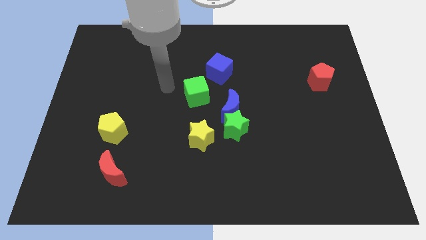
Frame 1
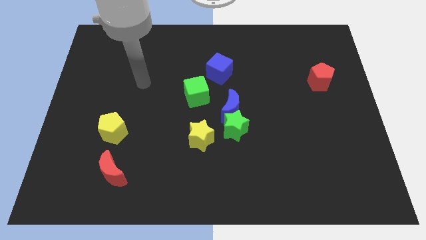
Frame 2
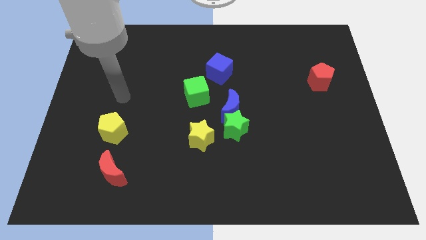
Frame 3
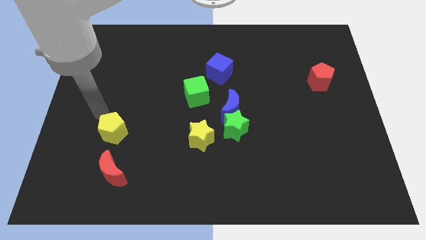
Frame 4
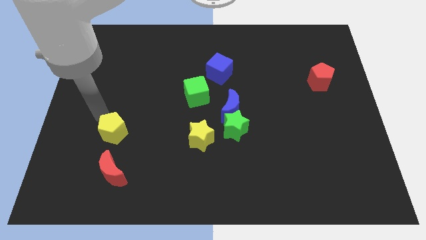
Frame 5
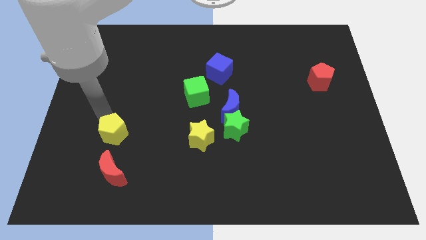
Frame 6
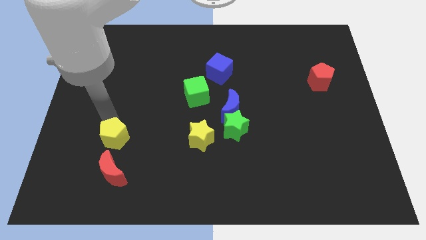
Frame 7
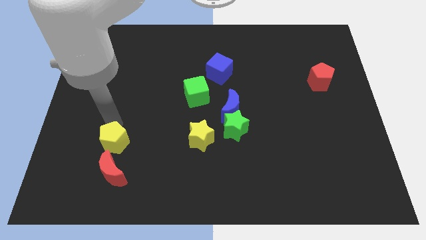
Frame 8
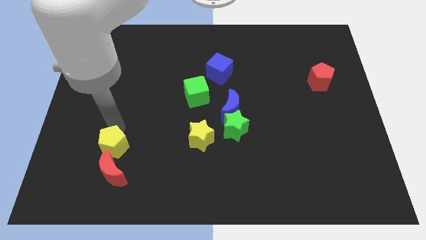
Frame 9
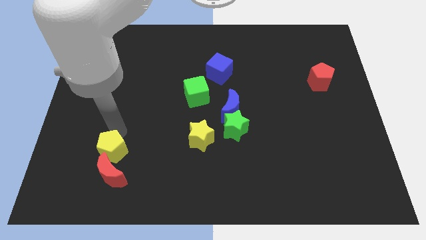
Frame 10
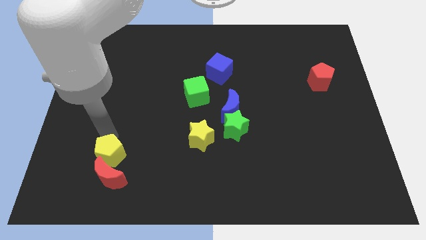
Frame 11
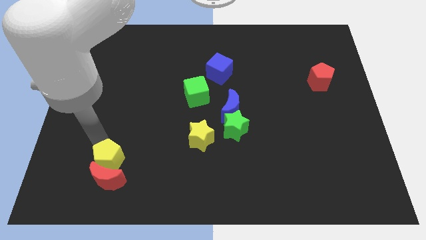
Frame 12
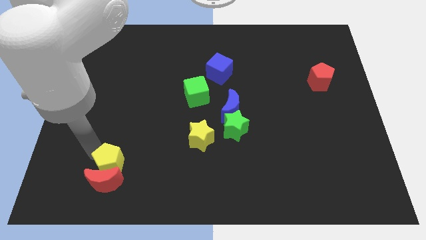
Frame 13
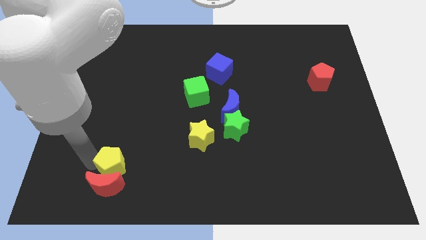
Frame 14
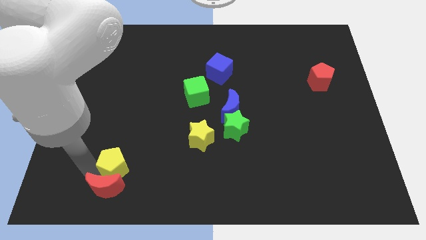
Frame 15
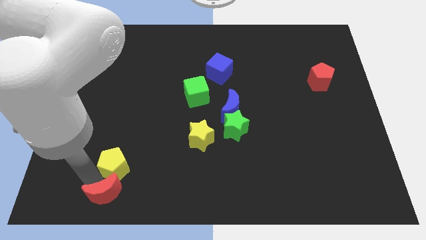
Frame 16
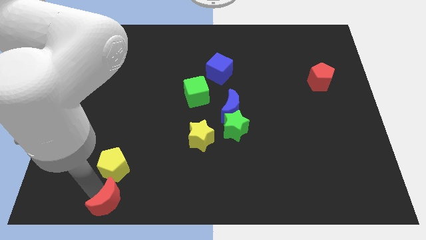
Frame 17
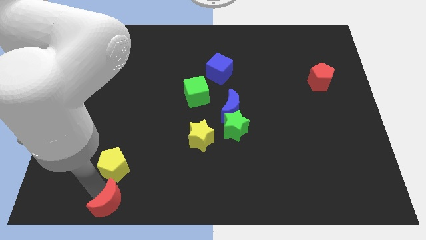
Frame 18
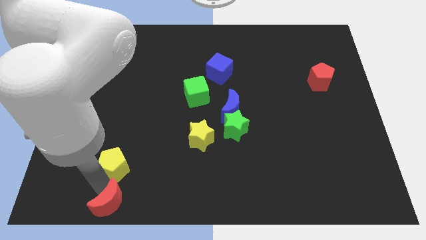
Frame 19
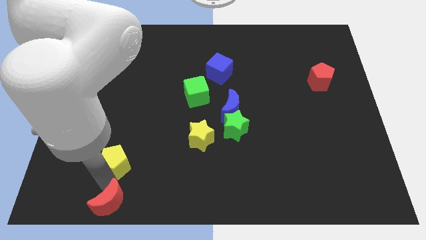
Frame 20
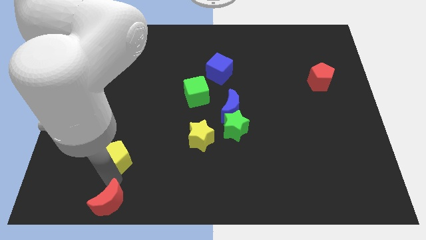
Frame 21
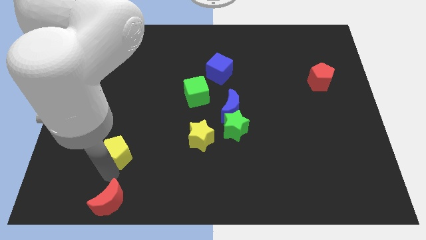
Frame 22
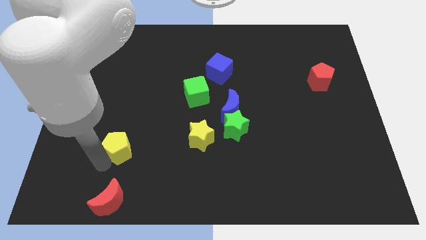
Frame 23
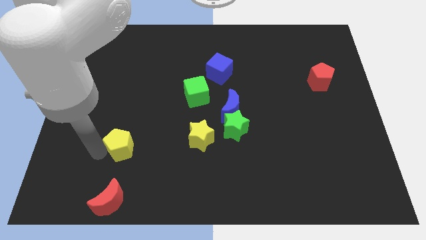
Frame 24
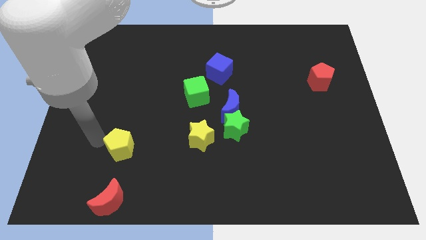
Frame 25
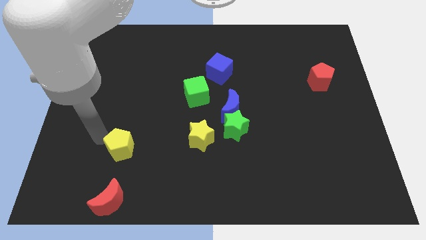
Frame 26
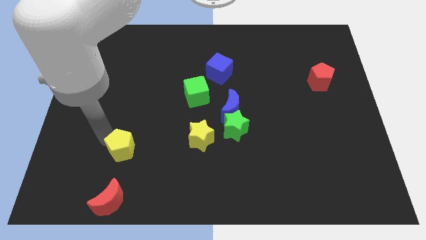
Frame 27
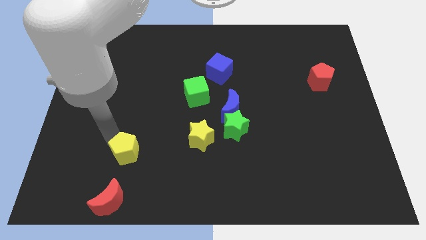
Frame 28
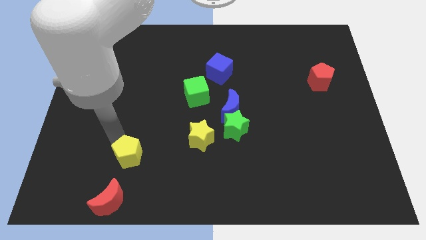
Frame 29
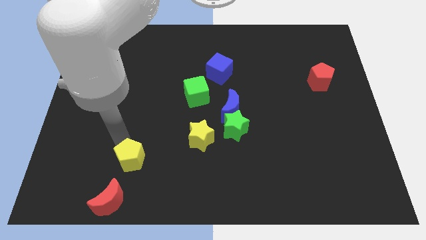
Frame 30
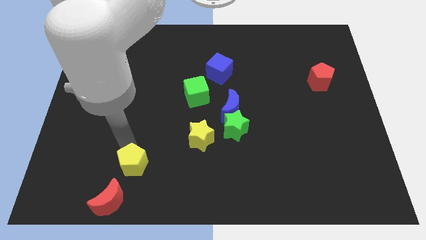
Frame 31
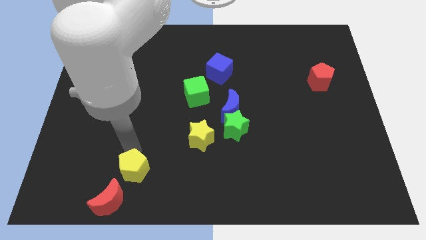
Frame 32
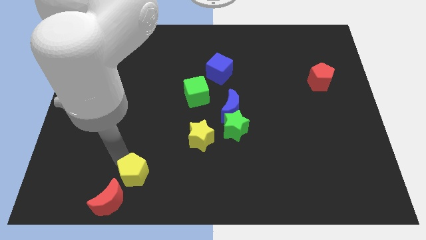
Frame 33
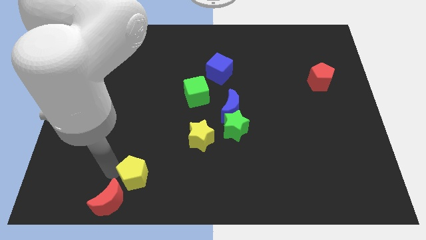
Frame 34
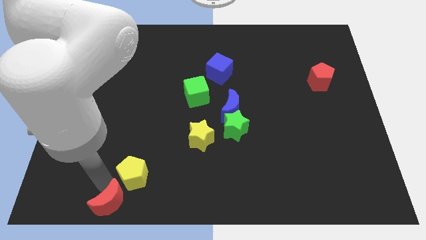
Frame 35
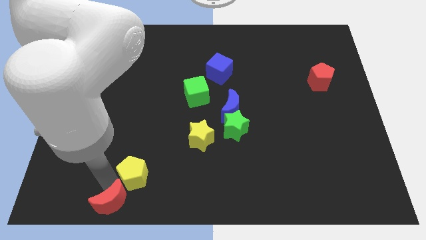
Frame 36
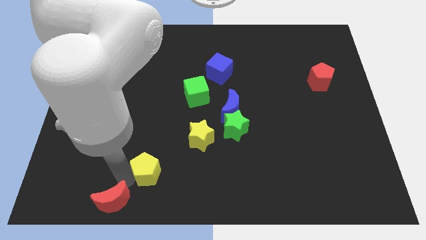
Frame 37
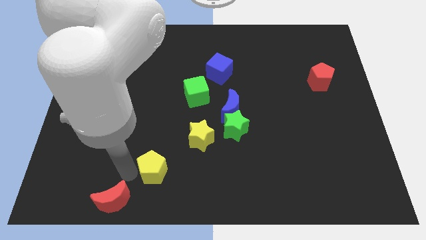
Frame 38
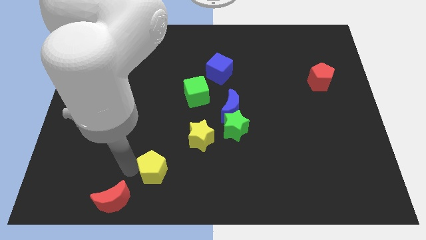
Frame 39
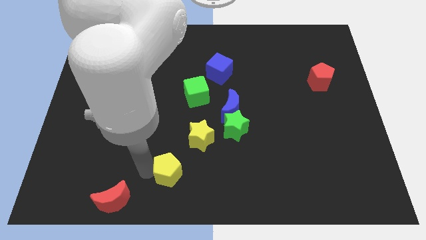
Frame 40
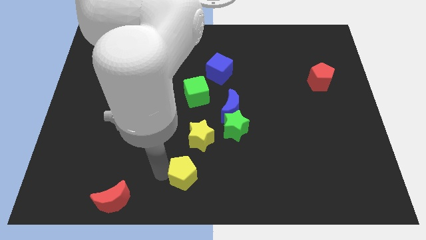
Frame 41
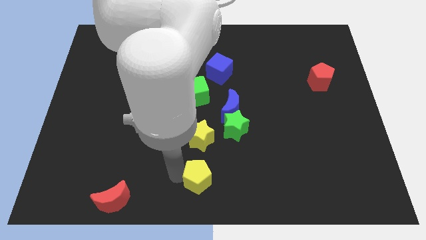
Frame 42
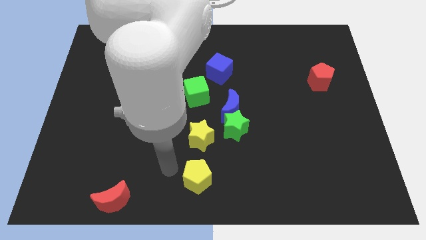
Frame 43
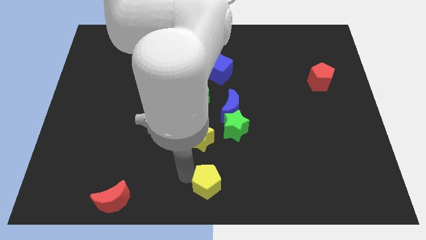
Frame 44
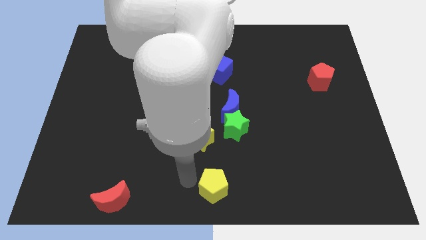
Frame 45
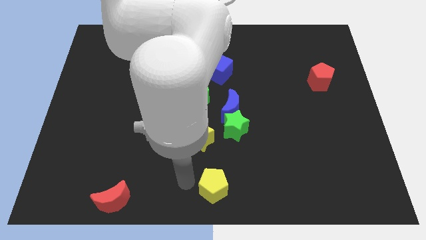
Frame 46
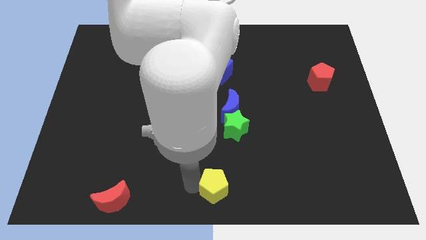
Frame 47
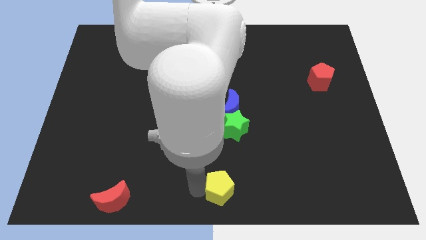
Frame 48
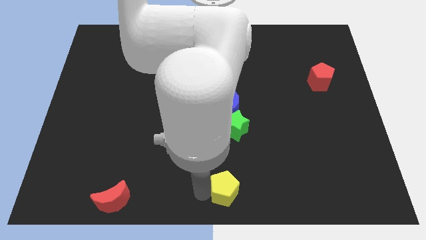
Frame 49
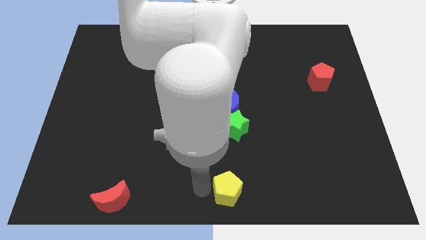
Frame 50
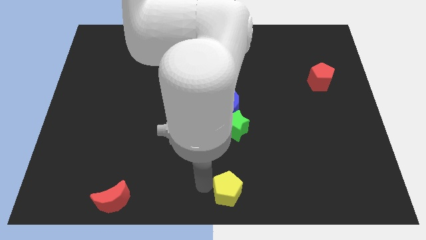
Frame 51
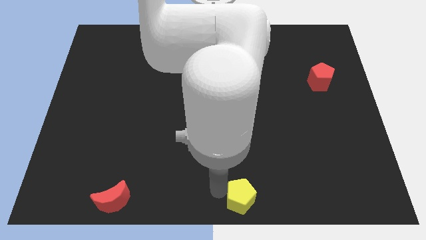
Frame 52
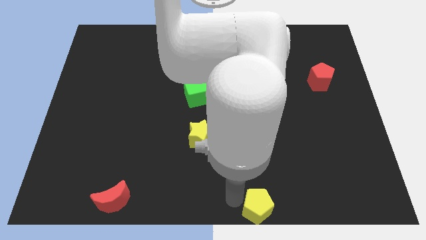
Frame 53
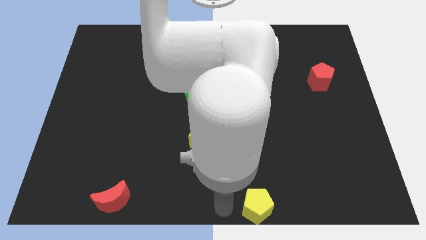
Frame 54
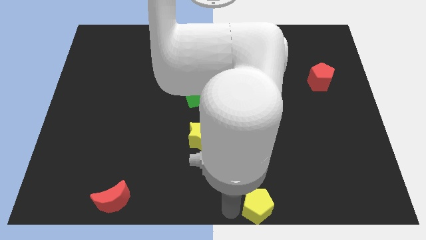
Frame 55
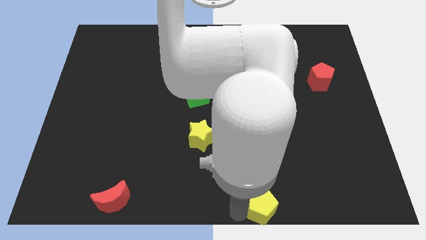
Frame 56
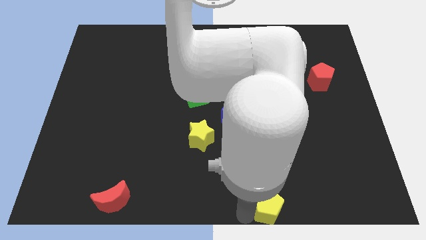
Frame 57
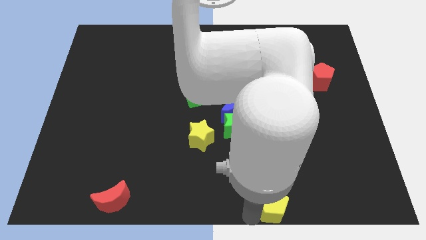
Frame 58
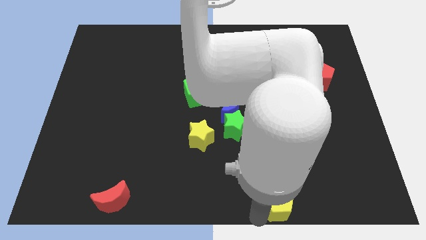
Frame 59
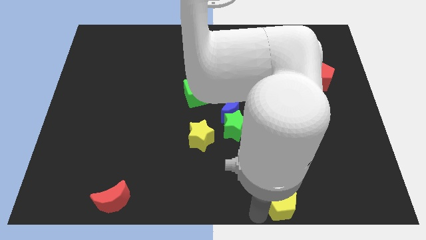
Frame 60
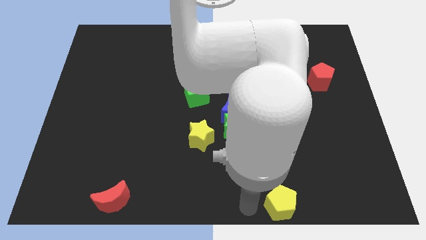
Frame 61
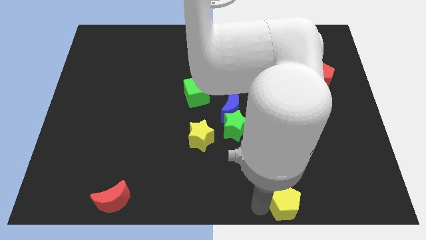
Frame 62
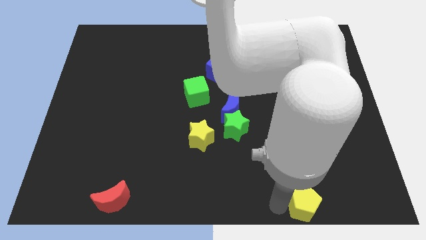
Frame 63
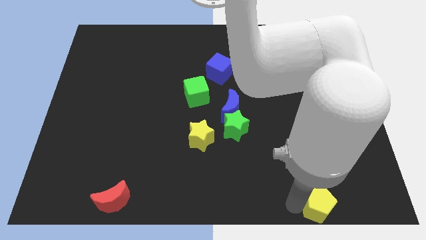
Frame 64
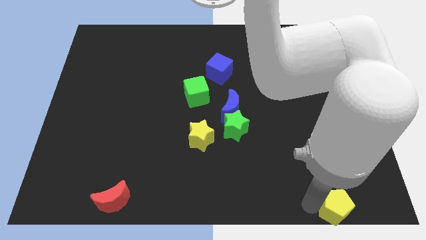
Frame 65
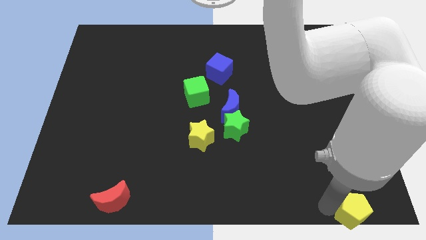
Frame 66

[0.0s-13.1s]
push the yellow pentagon to the lower right corner

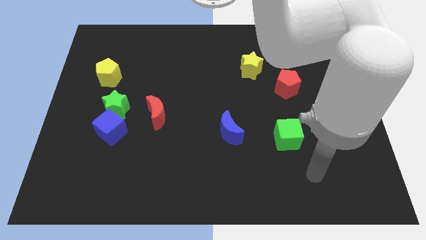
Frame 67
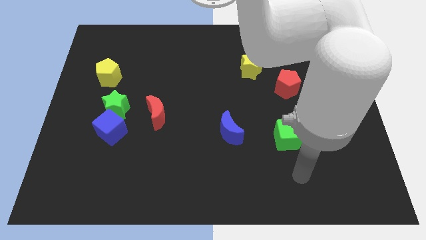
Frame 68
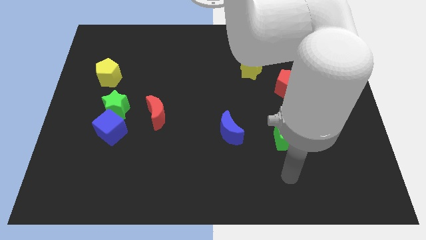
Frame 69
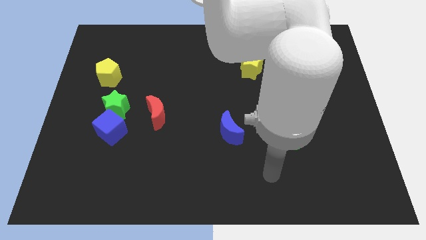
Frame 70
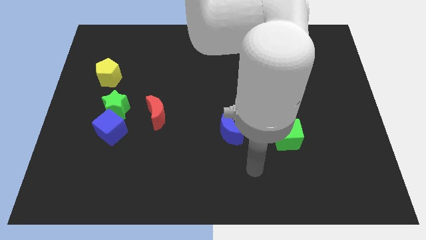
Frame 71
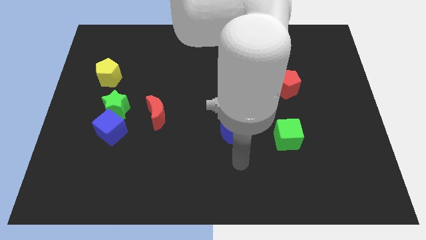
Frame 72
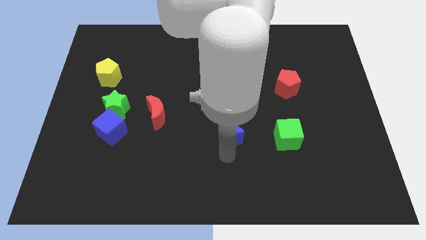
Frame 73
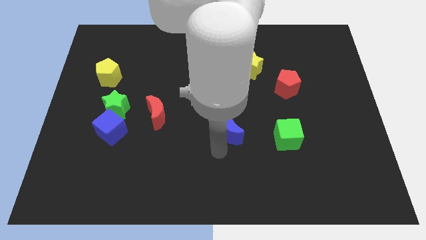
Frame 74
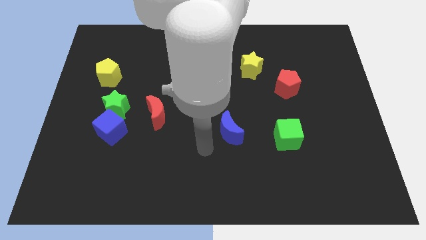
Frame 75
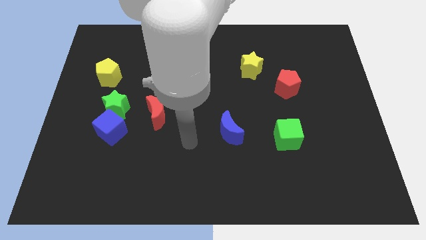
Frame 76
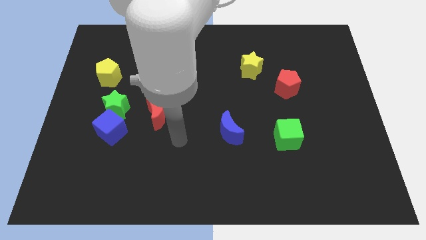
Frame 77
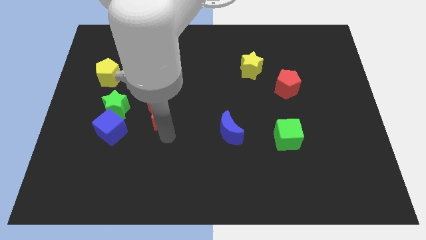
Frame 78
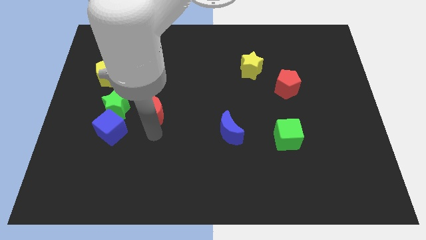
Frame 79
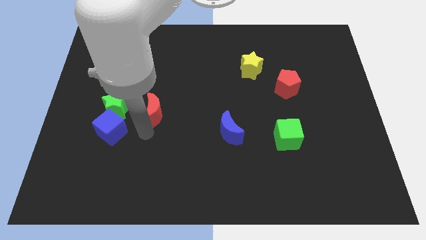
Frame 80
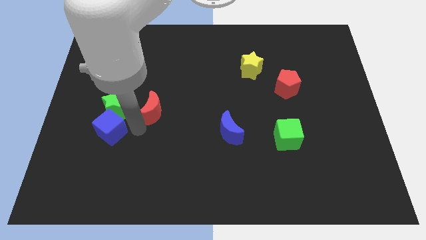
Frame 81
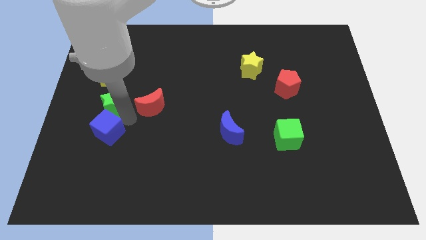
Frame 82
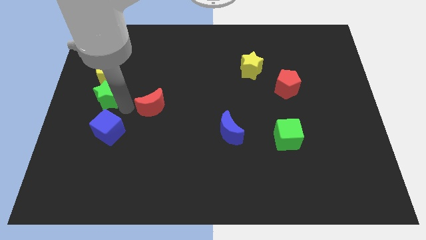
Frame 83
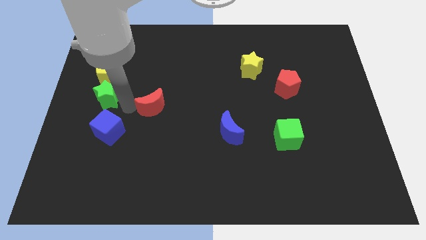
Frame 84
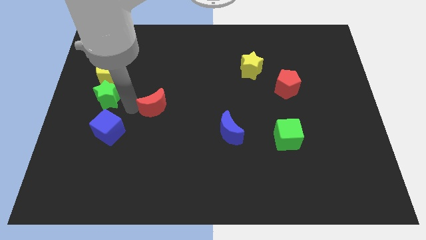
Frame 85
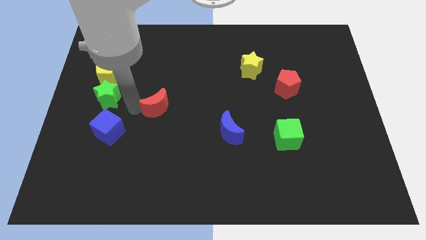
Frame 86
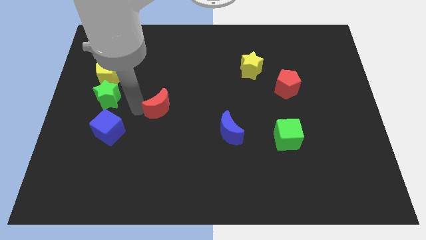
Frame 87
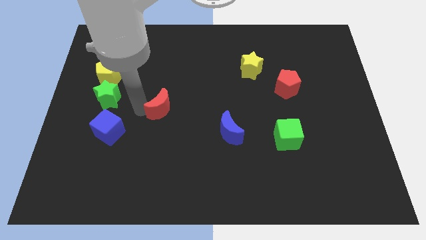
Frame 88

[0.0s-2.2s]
move the red moon to the middle of the board
